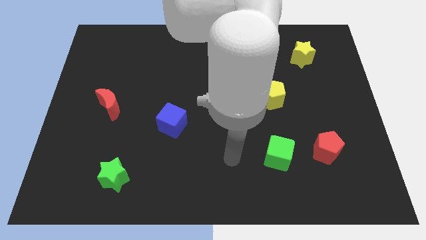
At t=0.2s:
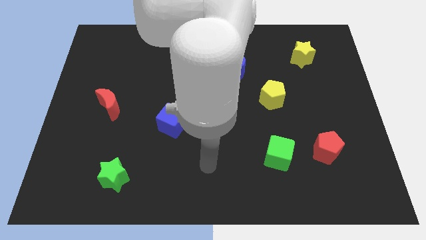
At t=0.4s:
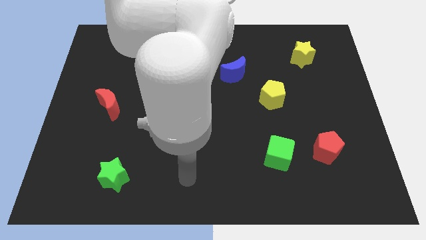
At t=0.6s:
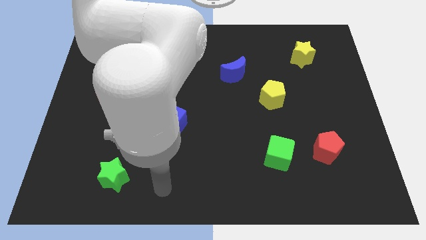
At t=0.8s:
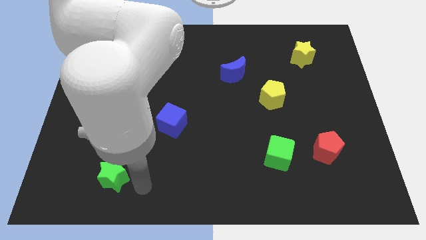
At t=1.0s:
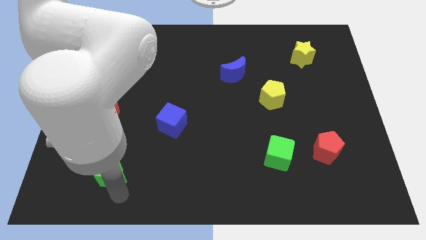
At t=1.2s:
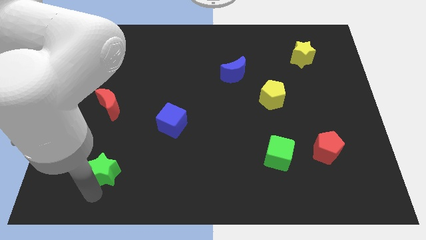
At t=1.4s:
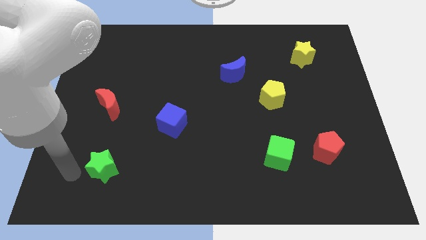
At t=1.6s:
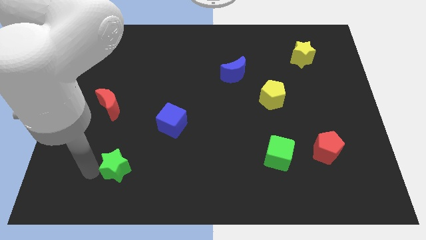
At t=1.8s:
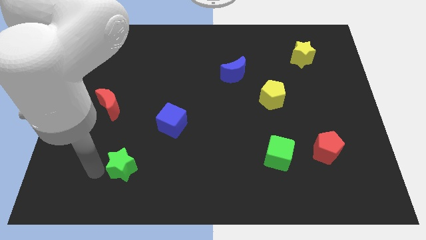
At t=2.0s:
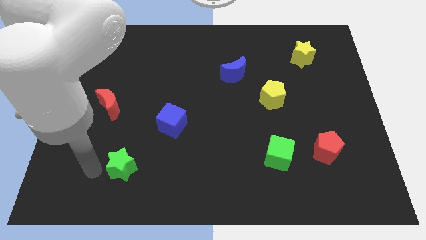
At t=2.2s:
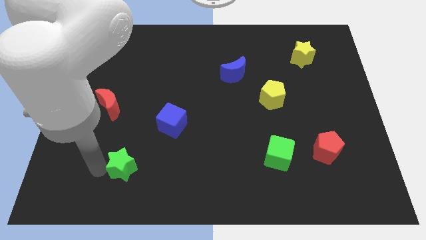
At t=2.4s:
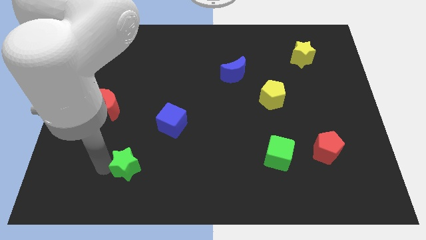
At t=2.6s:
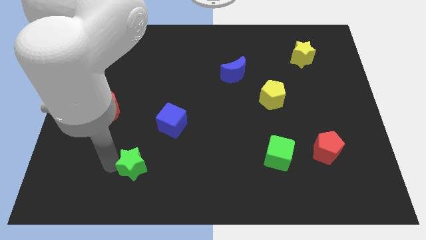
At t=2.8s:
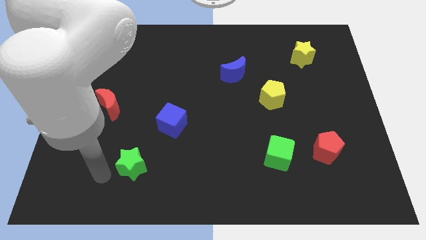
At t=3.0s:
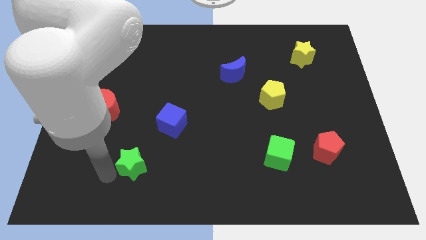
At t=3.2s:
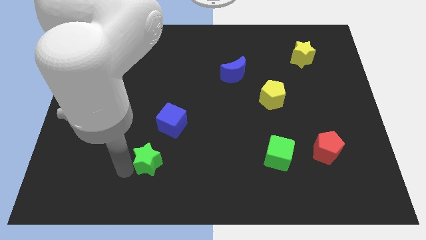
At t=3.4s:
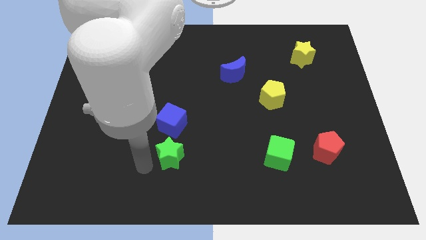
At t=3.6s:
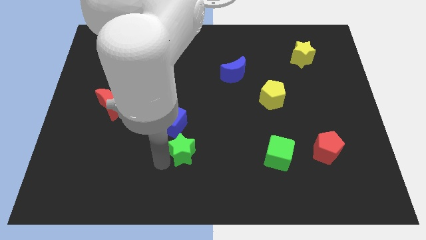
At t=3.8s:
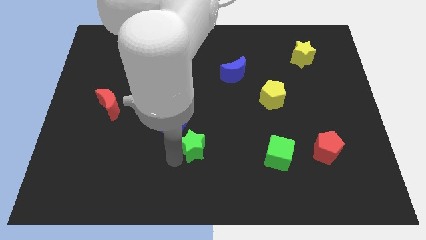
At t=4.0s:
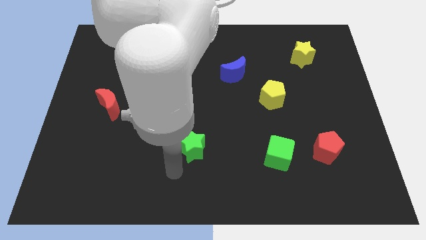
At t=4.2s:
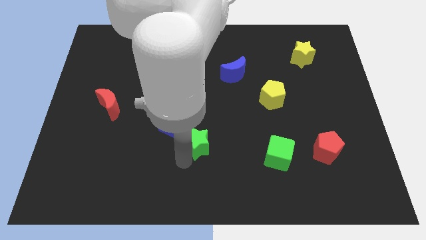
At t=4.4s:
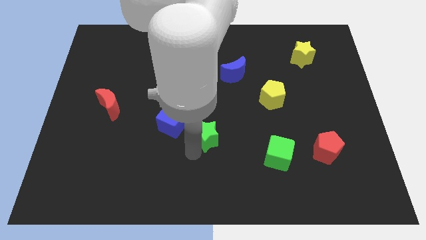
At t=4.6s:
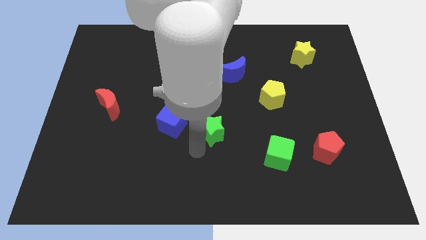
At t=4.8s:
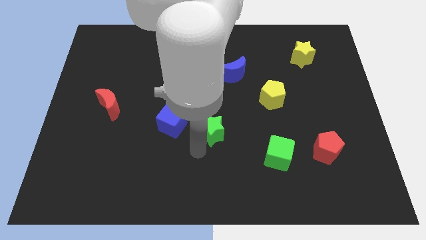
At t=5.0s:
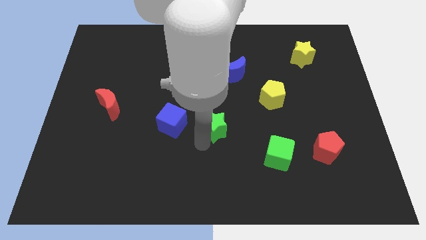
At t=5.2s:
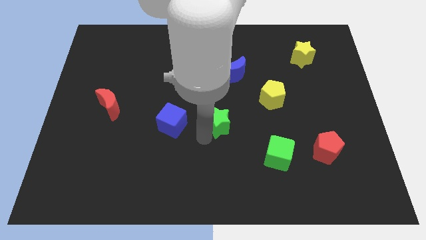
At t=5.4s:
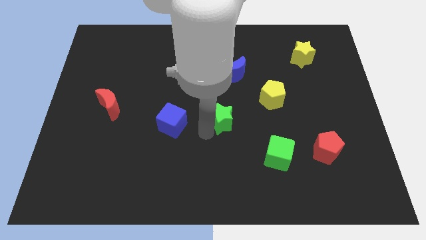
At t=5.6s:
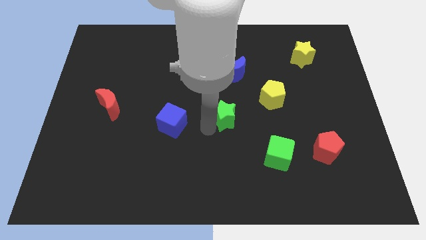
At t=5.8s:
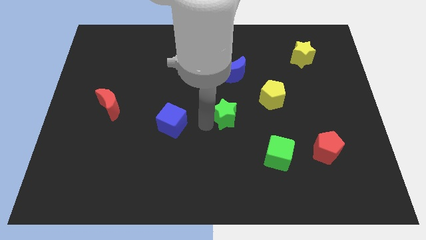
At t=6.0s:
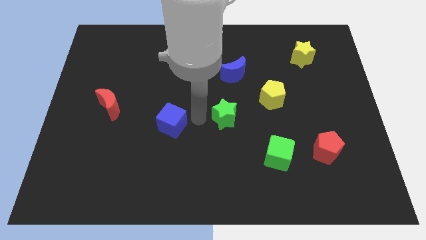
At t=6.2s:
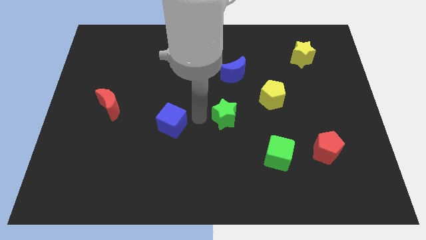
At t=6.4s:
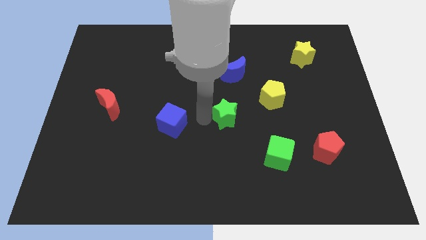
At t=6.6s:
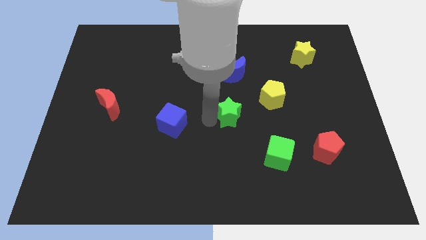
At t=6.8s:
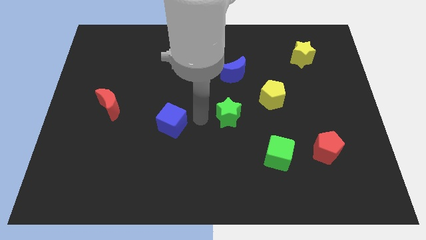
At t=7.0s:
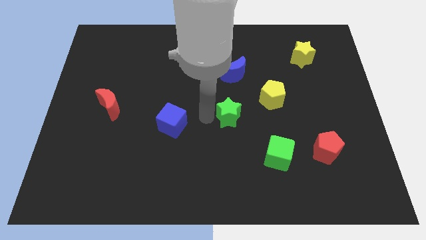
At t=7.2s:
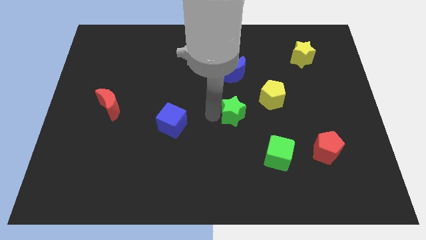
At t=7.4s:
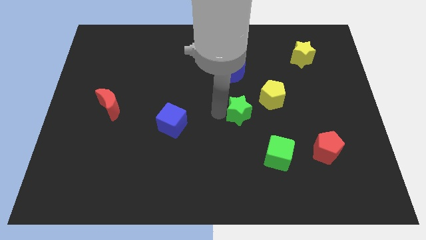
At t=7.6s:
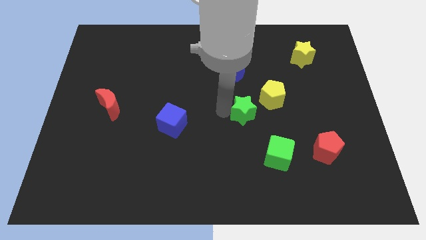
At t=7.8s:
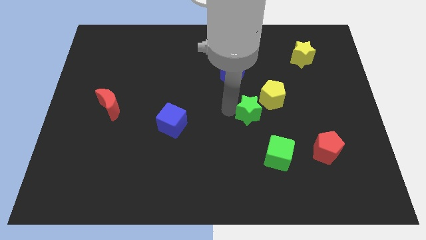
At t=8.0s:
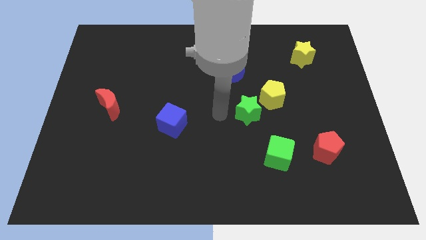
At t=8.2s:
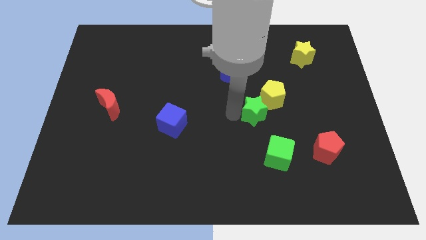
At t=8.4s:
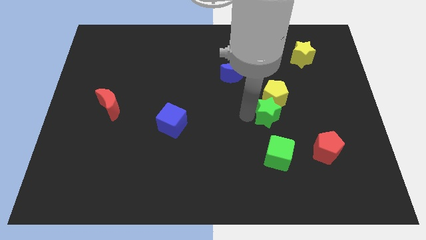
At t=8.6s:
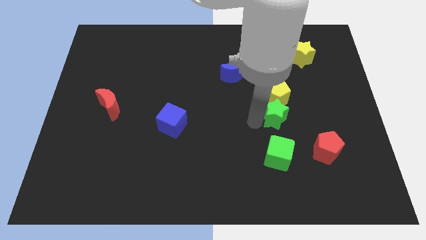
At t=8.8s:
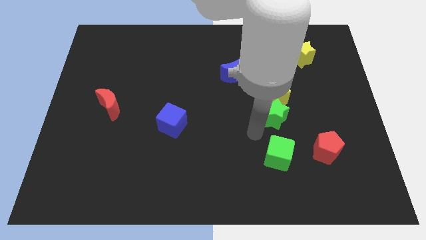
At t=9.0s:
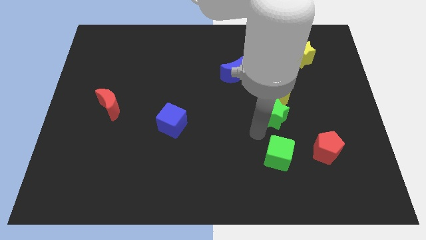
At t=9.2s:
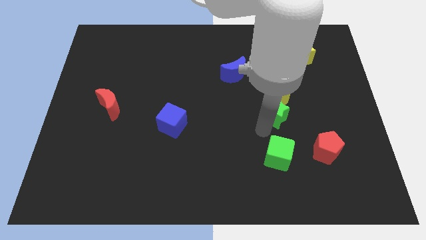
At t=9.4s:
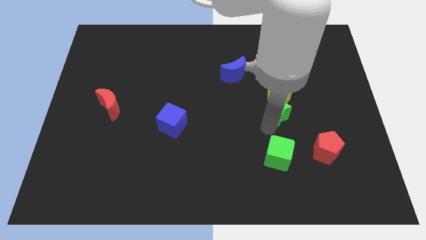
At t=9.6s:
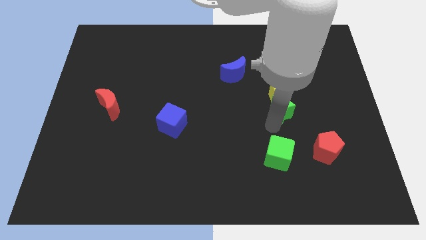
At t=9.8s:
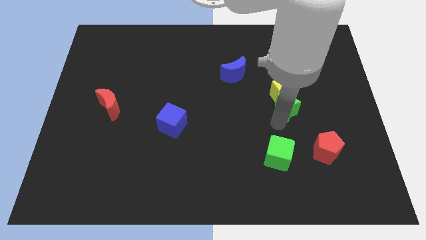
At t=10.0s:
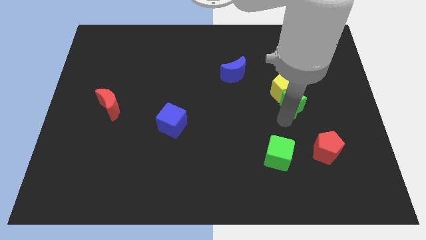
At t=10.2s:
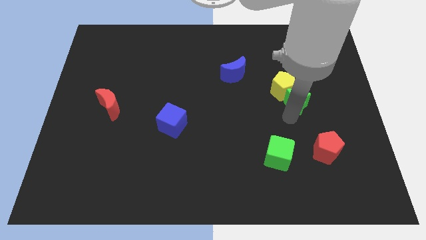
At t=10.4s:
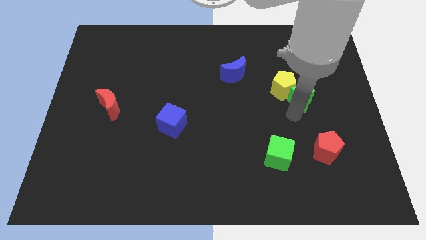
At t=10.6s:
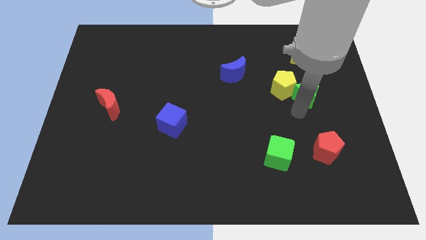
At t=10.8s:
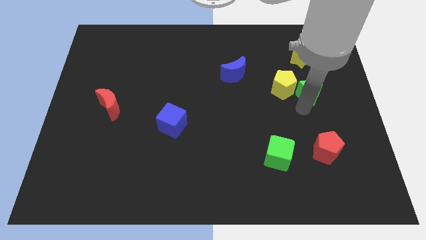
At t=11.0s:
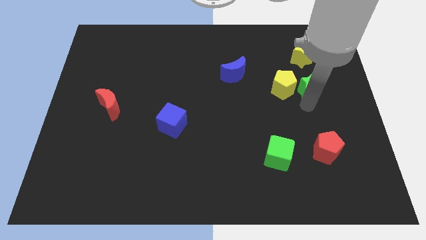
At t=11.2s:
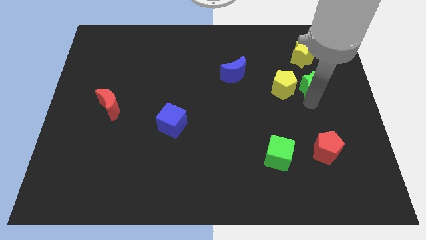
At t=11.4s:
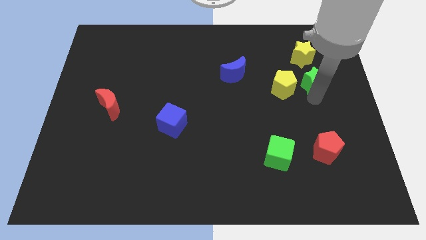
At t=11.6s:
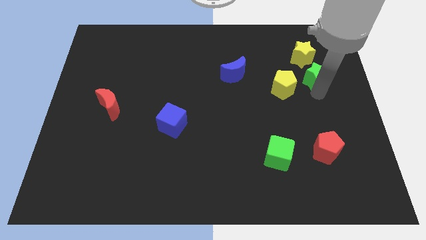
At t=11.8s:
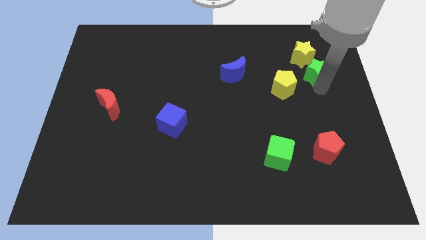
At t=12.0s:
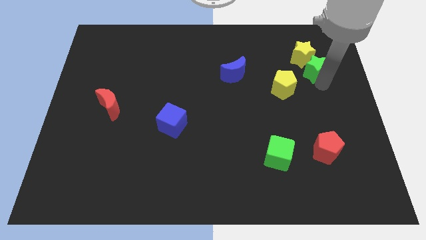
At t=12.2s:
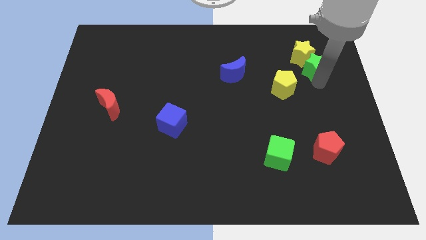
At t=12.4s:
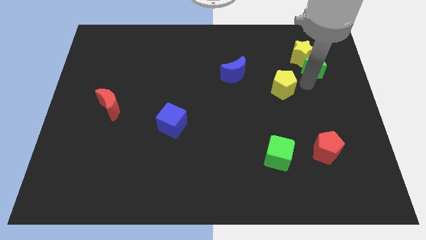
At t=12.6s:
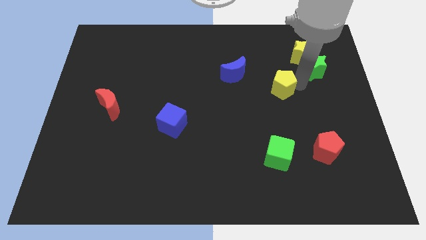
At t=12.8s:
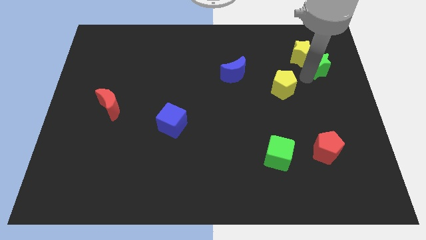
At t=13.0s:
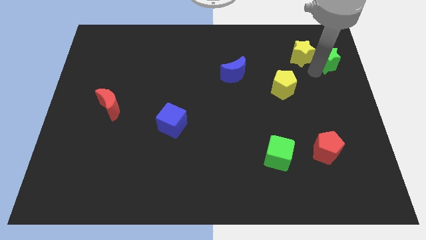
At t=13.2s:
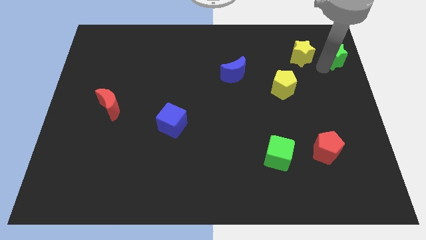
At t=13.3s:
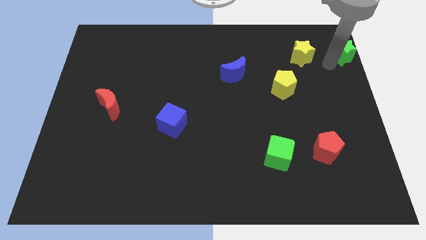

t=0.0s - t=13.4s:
push the green star to the top right of the board
